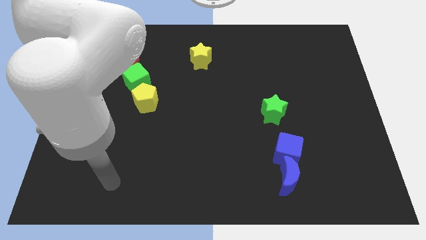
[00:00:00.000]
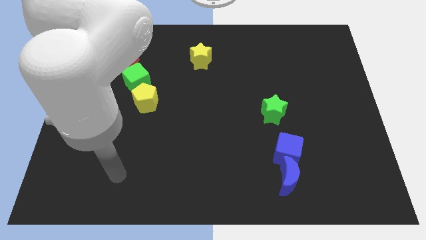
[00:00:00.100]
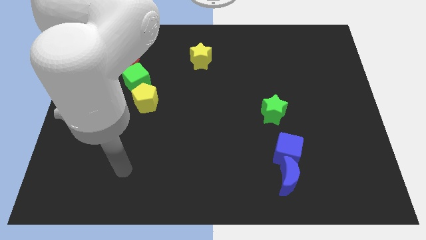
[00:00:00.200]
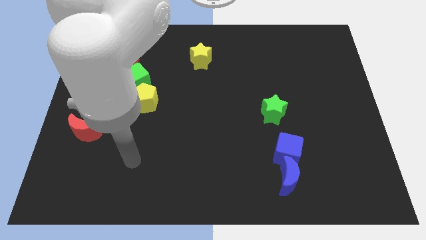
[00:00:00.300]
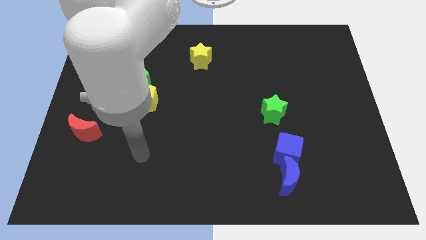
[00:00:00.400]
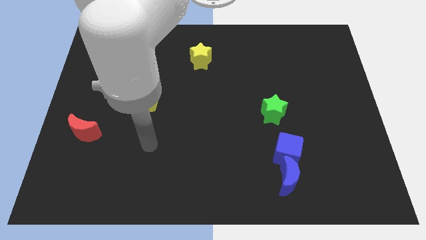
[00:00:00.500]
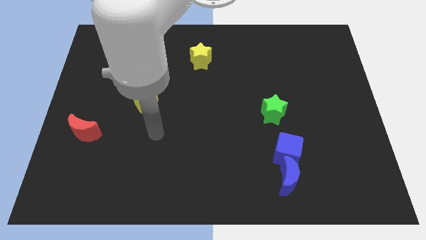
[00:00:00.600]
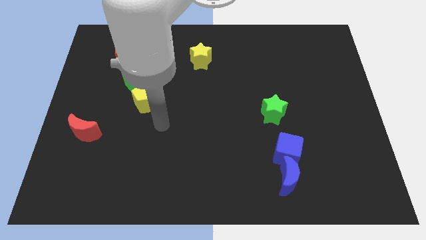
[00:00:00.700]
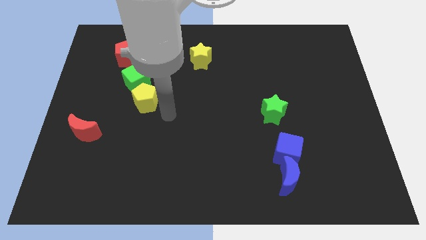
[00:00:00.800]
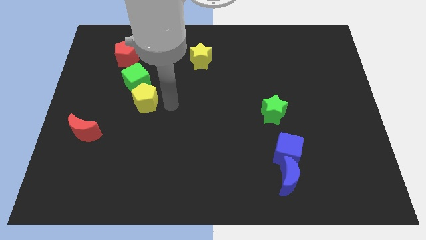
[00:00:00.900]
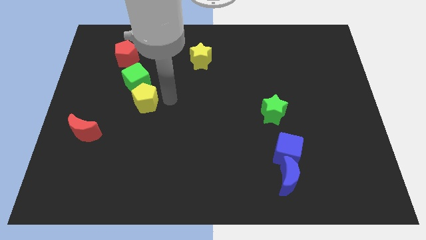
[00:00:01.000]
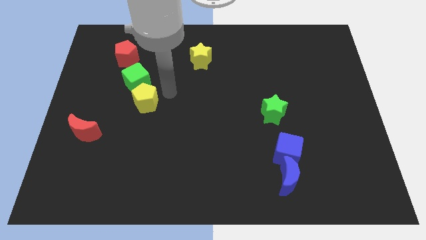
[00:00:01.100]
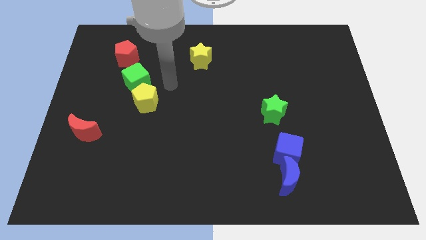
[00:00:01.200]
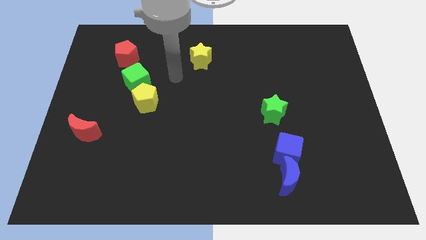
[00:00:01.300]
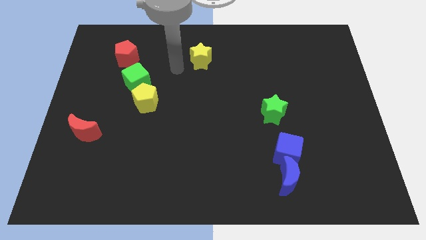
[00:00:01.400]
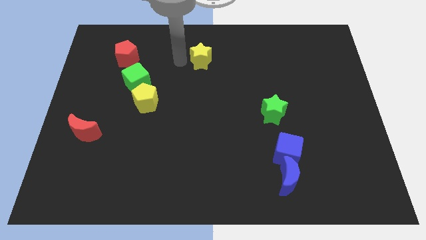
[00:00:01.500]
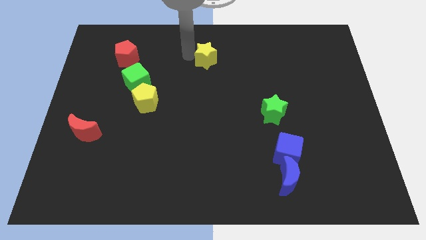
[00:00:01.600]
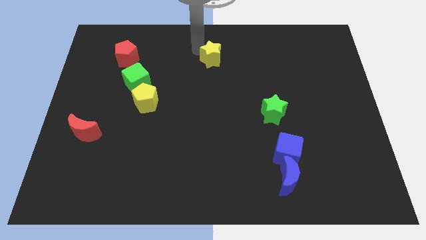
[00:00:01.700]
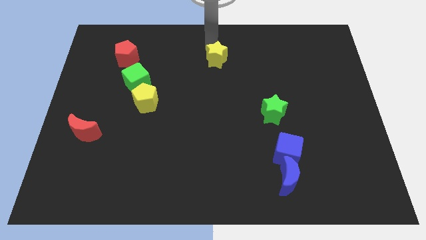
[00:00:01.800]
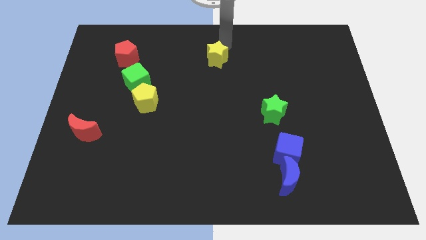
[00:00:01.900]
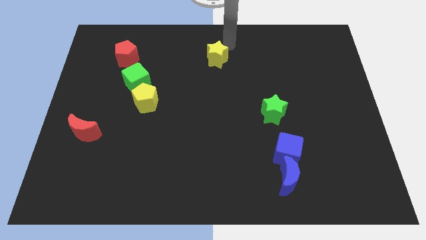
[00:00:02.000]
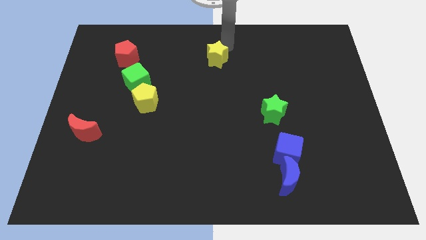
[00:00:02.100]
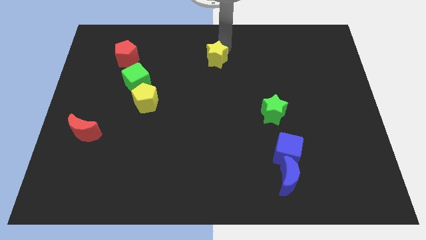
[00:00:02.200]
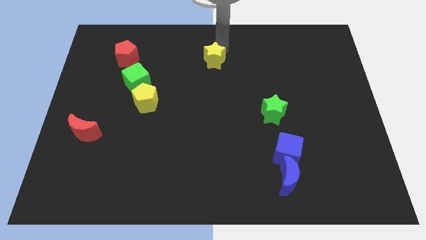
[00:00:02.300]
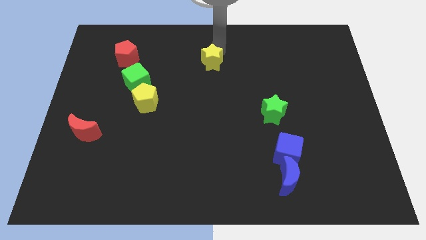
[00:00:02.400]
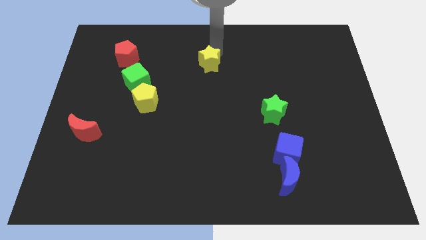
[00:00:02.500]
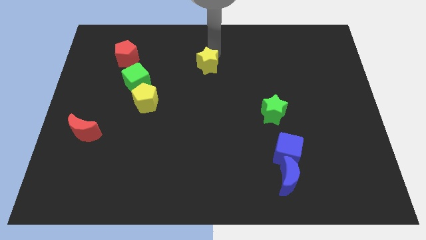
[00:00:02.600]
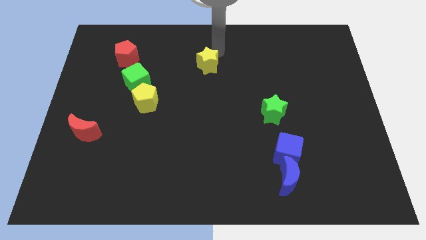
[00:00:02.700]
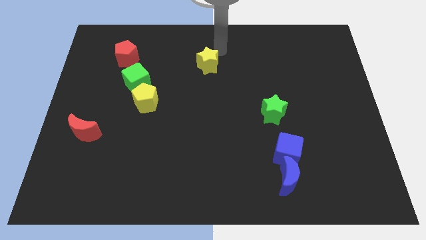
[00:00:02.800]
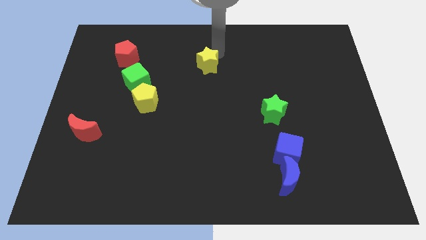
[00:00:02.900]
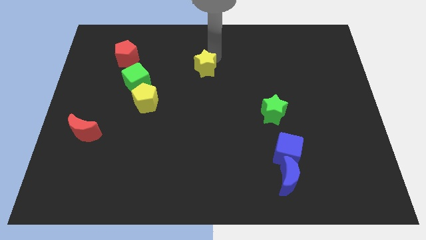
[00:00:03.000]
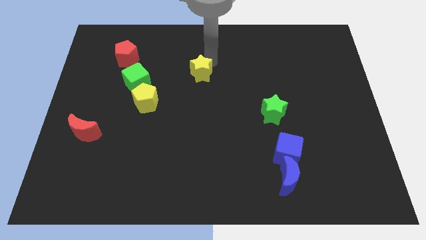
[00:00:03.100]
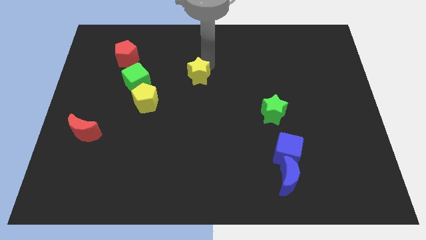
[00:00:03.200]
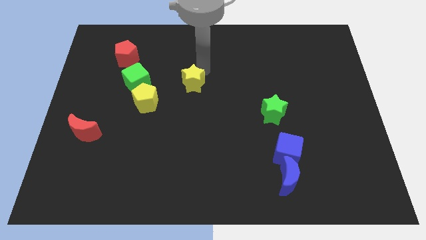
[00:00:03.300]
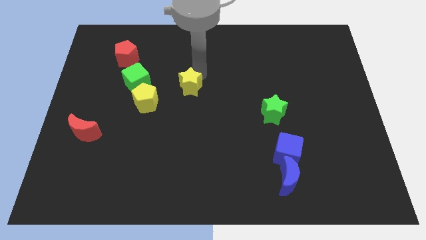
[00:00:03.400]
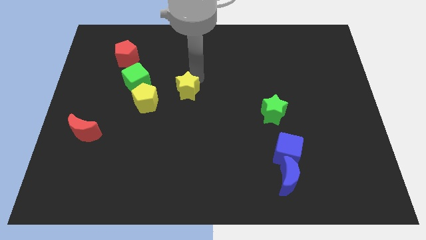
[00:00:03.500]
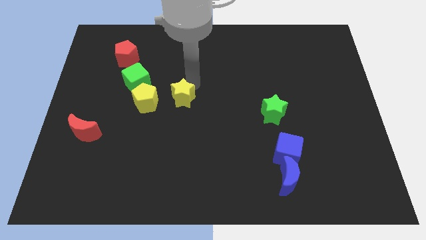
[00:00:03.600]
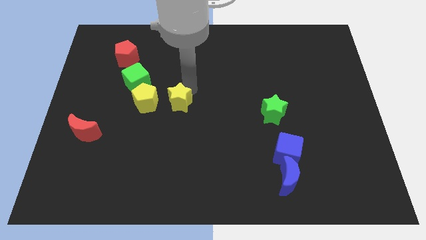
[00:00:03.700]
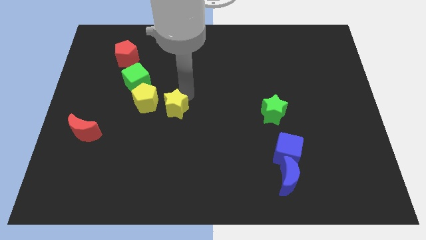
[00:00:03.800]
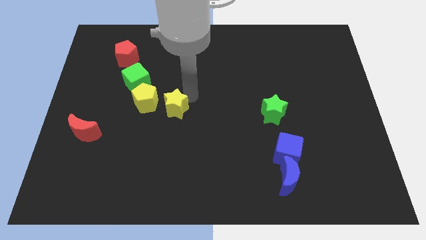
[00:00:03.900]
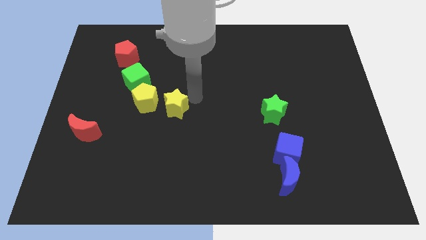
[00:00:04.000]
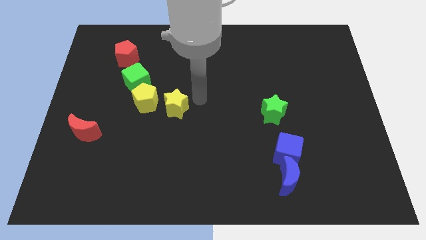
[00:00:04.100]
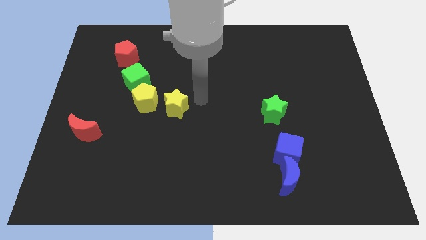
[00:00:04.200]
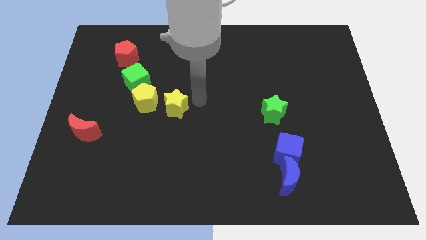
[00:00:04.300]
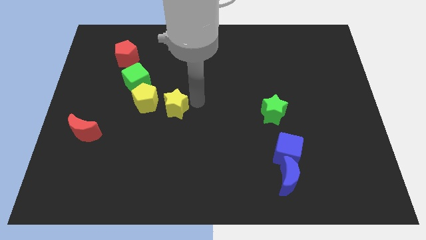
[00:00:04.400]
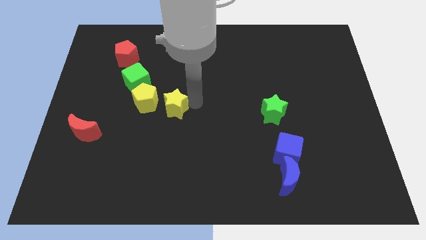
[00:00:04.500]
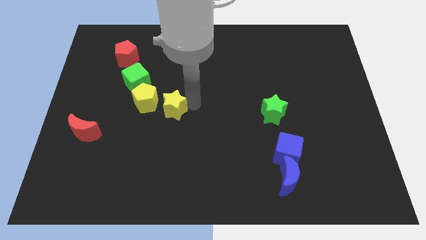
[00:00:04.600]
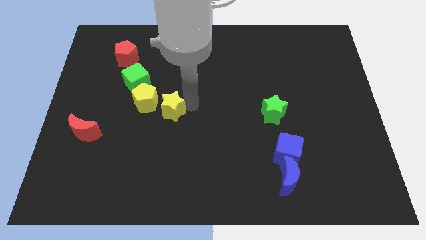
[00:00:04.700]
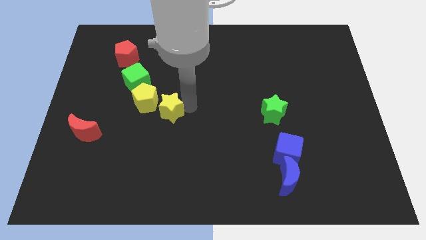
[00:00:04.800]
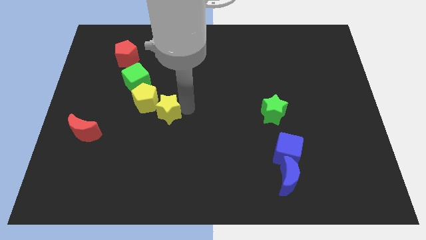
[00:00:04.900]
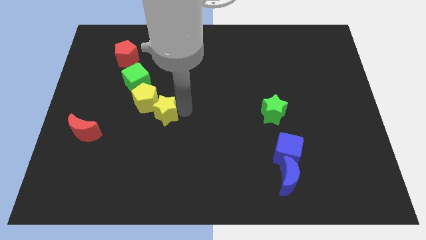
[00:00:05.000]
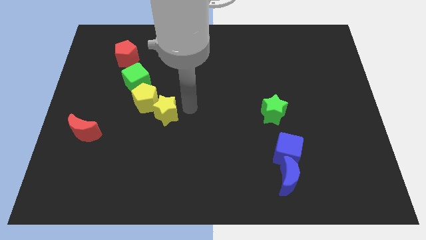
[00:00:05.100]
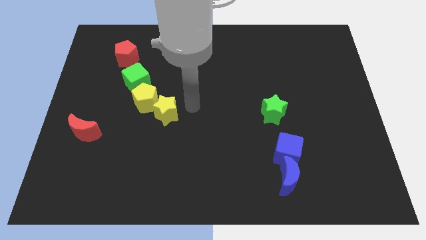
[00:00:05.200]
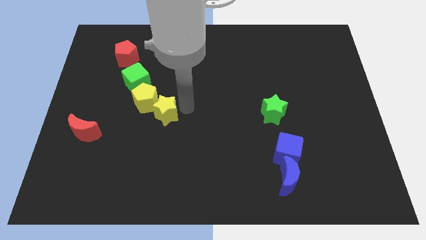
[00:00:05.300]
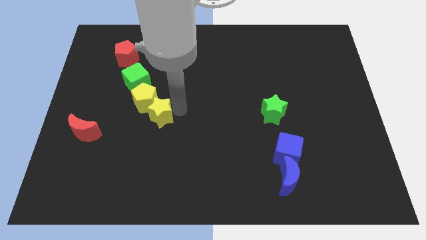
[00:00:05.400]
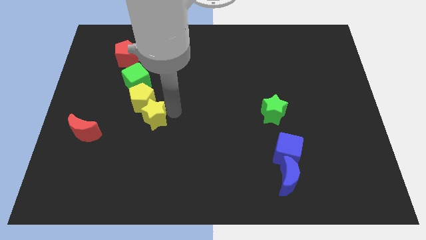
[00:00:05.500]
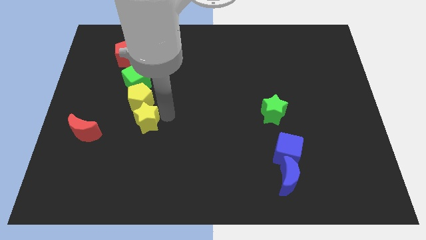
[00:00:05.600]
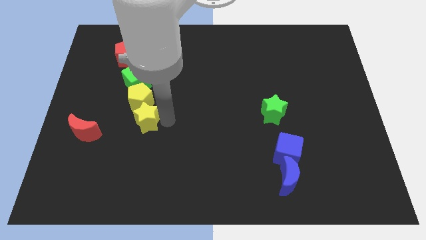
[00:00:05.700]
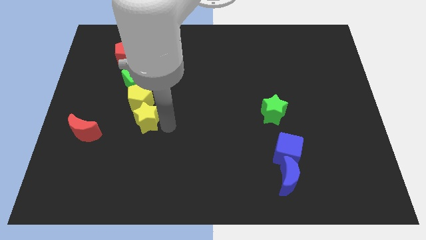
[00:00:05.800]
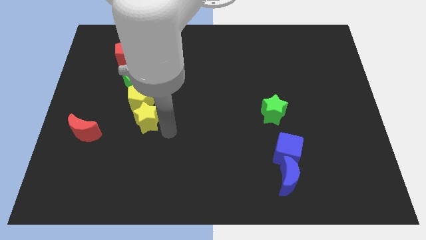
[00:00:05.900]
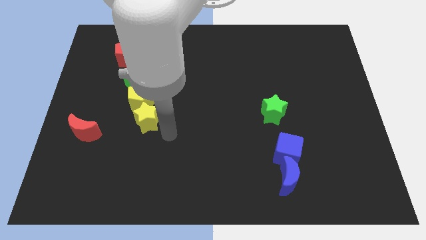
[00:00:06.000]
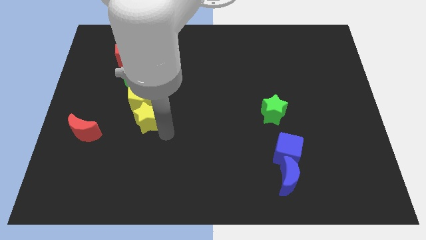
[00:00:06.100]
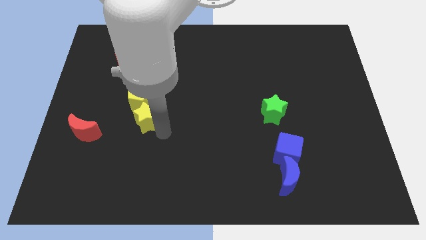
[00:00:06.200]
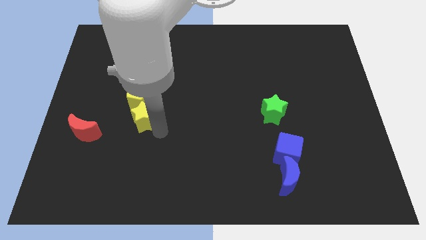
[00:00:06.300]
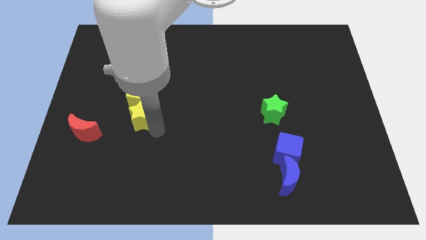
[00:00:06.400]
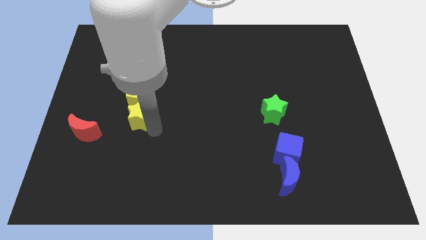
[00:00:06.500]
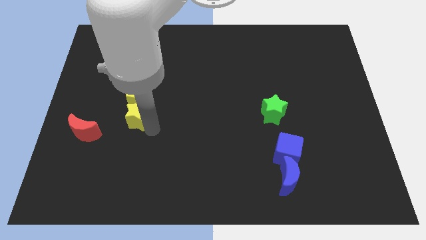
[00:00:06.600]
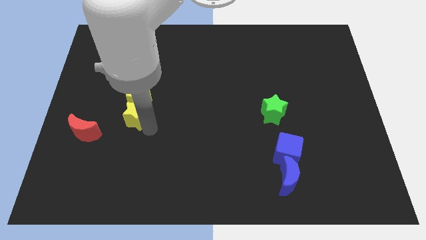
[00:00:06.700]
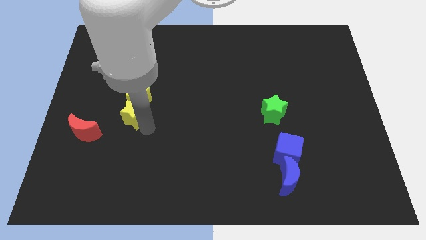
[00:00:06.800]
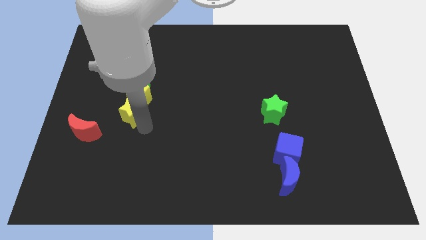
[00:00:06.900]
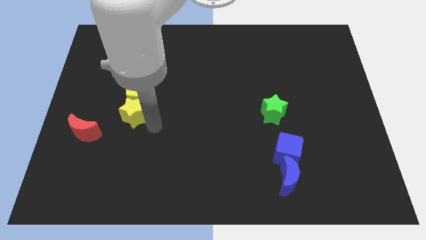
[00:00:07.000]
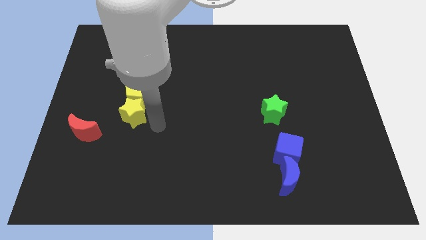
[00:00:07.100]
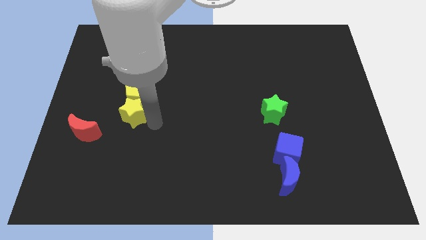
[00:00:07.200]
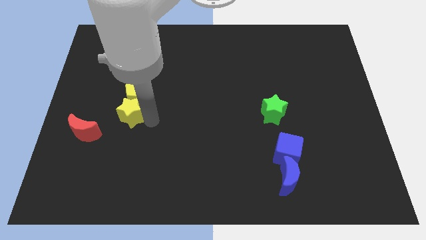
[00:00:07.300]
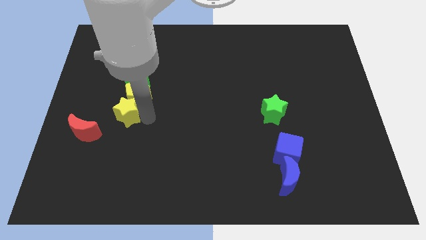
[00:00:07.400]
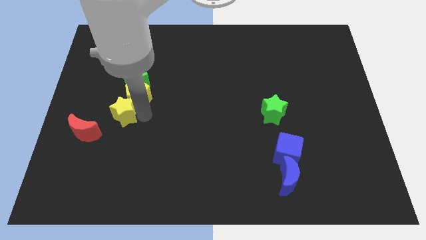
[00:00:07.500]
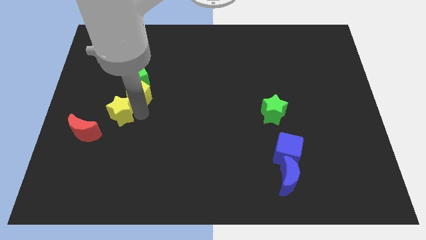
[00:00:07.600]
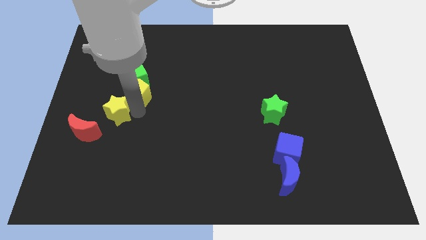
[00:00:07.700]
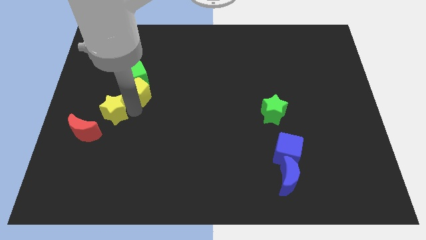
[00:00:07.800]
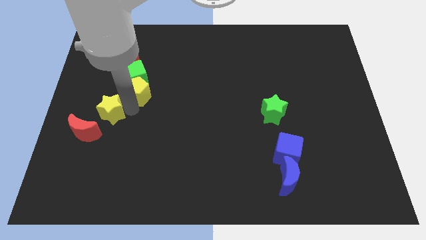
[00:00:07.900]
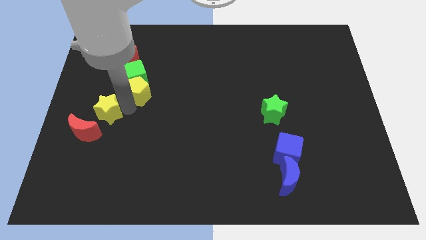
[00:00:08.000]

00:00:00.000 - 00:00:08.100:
slide the yellow star to the top of the red moon
